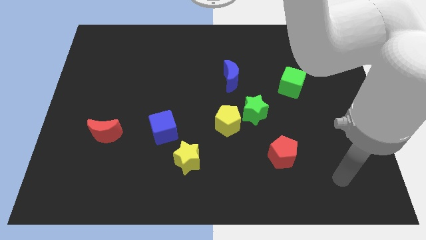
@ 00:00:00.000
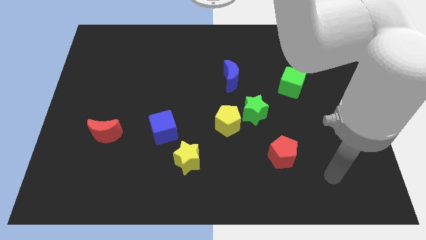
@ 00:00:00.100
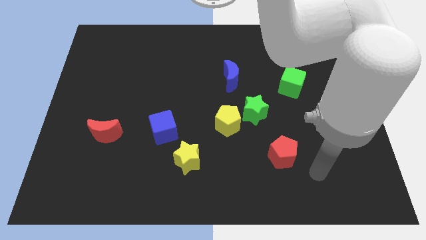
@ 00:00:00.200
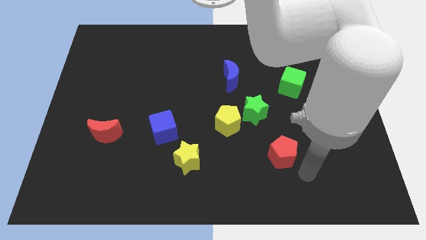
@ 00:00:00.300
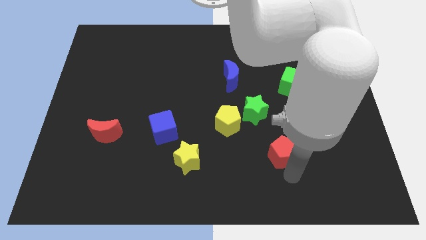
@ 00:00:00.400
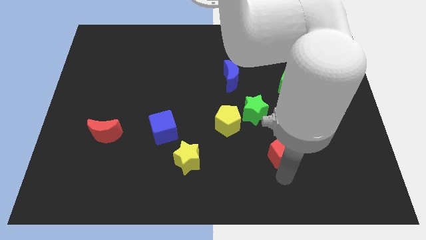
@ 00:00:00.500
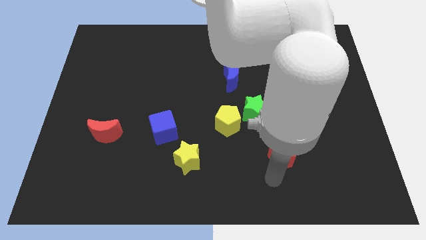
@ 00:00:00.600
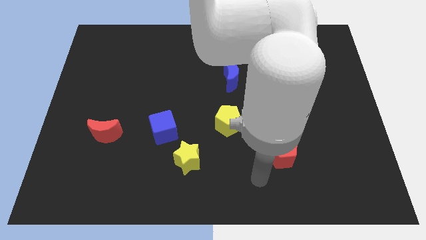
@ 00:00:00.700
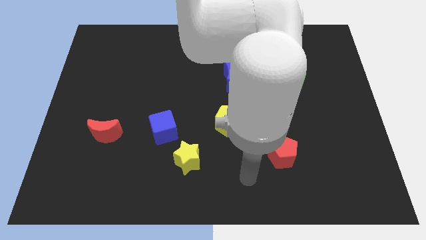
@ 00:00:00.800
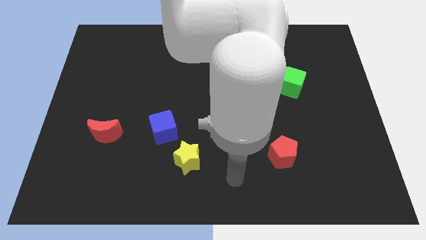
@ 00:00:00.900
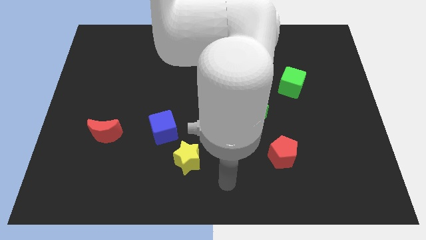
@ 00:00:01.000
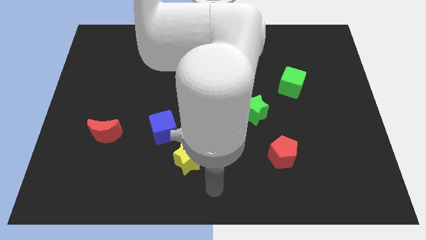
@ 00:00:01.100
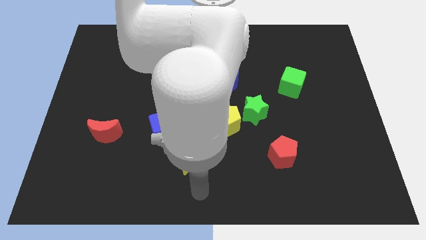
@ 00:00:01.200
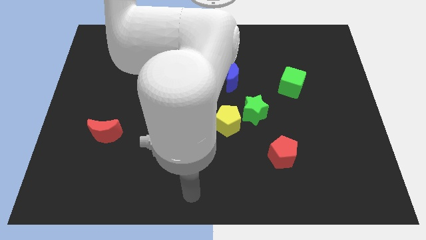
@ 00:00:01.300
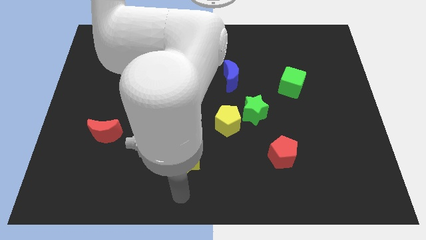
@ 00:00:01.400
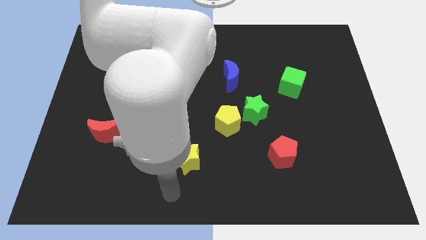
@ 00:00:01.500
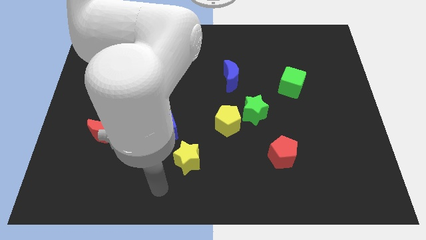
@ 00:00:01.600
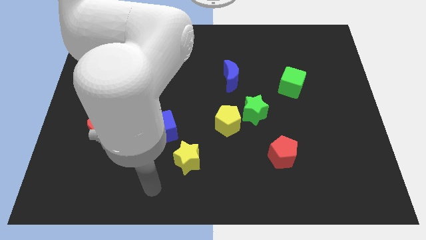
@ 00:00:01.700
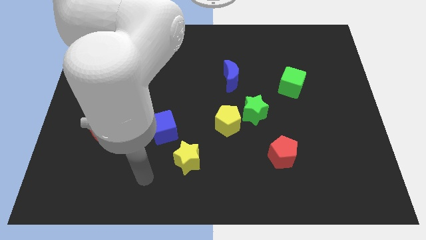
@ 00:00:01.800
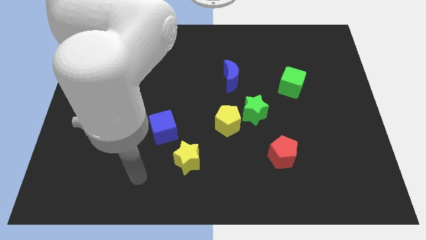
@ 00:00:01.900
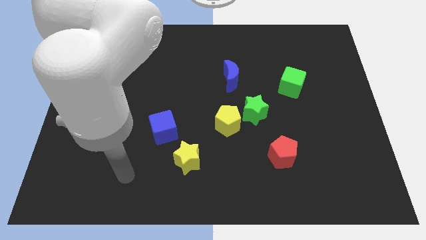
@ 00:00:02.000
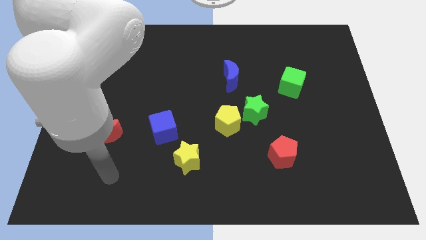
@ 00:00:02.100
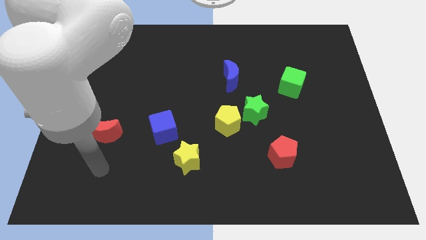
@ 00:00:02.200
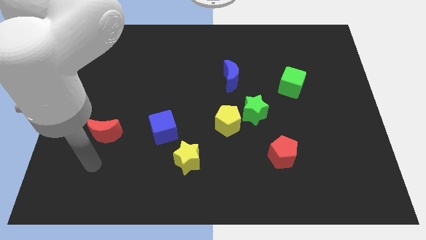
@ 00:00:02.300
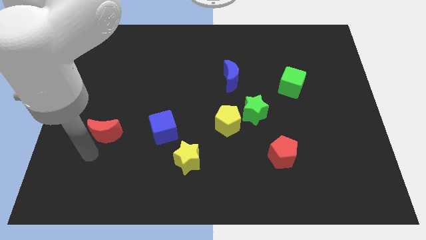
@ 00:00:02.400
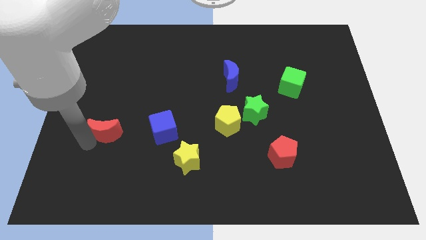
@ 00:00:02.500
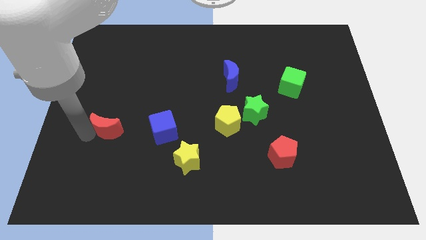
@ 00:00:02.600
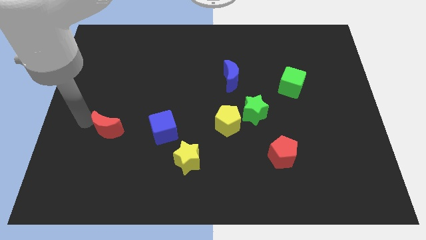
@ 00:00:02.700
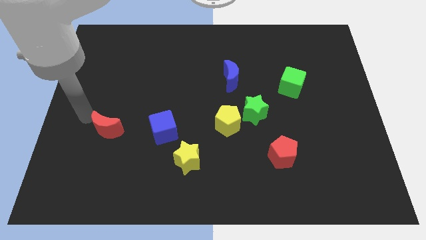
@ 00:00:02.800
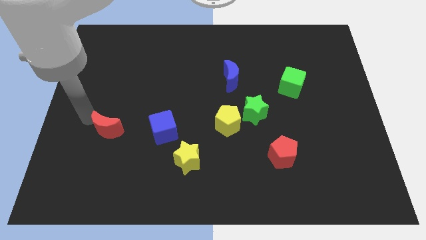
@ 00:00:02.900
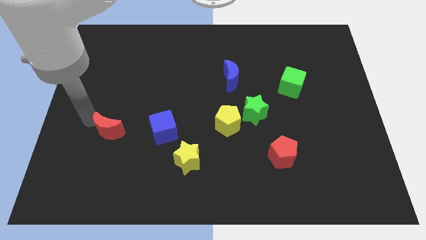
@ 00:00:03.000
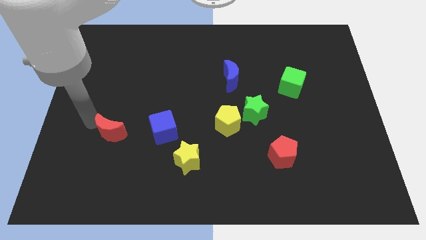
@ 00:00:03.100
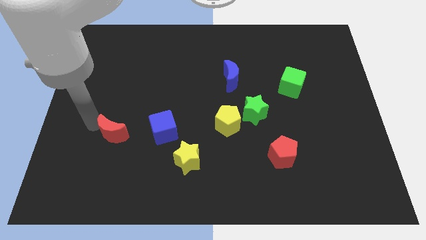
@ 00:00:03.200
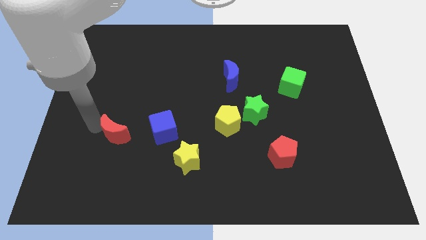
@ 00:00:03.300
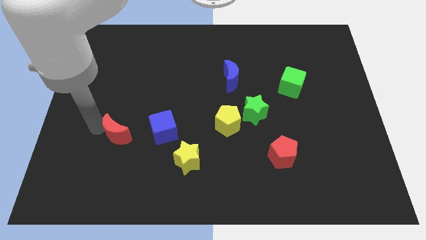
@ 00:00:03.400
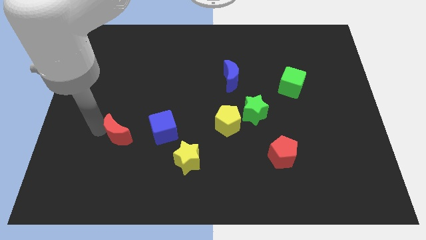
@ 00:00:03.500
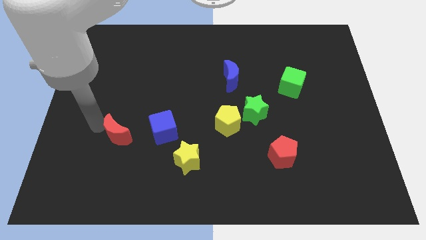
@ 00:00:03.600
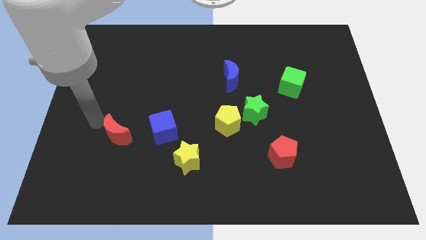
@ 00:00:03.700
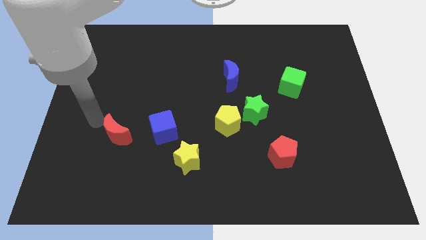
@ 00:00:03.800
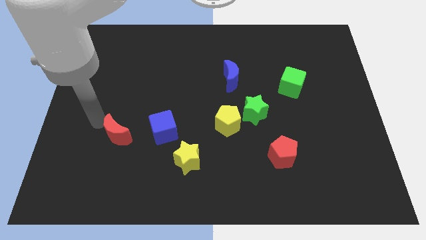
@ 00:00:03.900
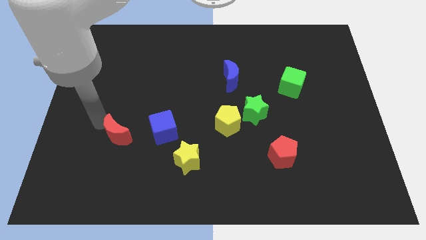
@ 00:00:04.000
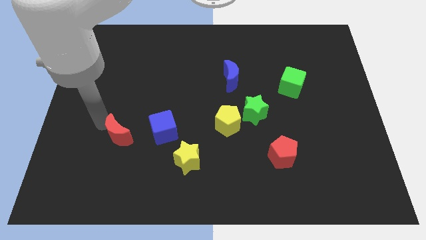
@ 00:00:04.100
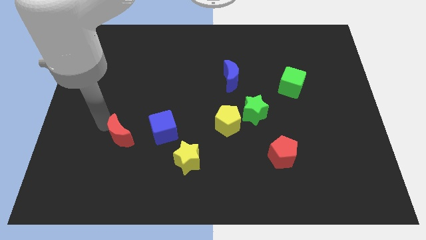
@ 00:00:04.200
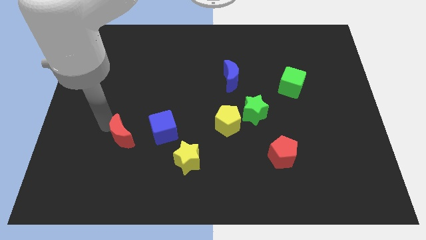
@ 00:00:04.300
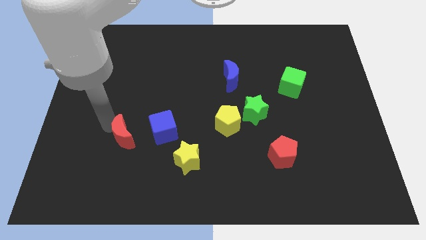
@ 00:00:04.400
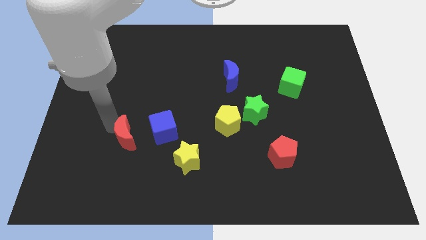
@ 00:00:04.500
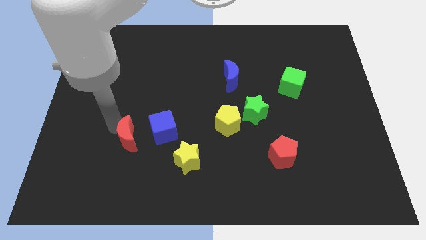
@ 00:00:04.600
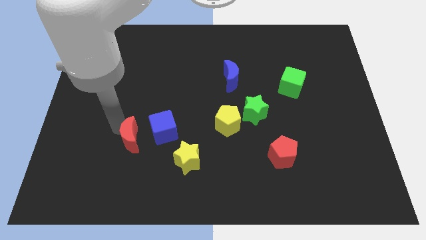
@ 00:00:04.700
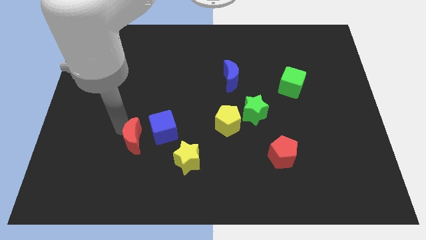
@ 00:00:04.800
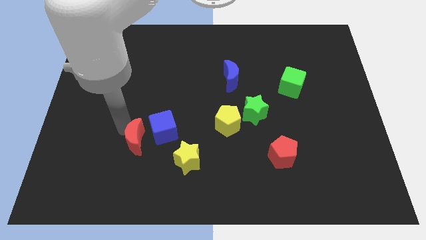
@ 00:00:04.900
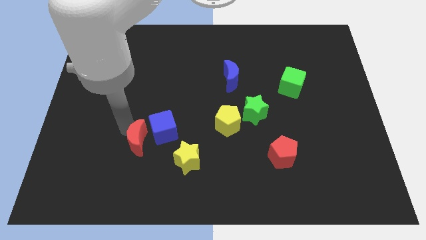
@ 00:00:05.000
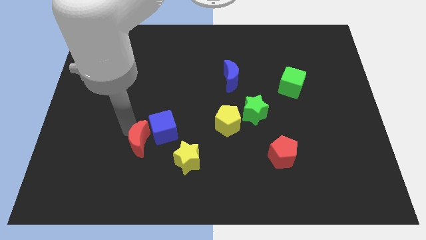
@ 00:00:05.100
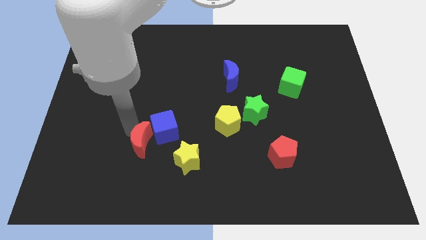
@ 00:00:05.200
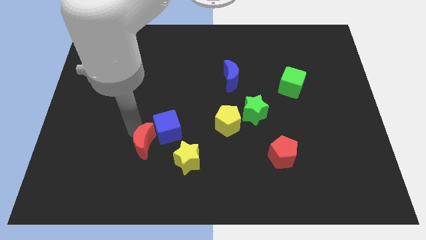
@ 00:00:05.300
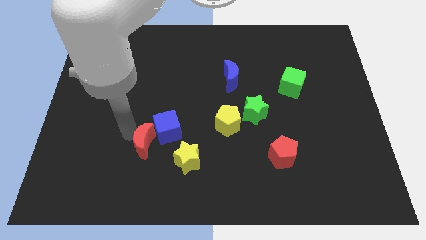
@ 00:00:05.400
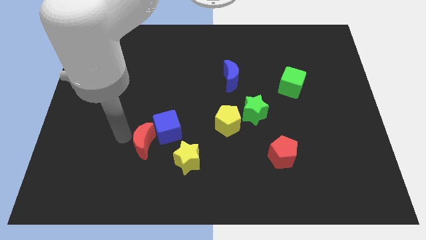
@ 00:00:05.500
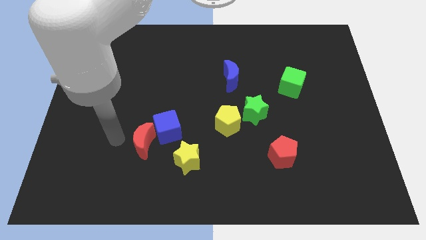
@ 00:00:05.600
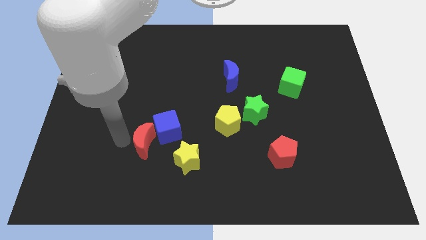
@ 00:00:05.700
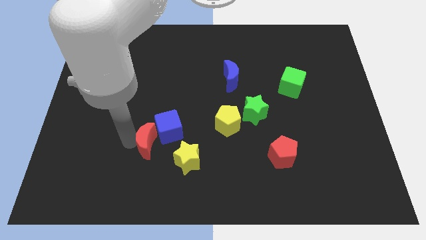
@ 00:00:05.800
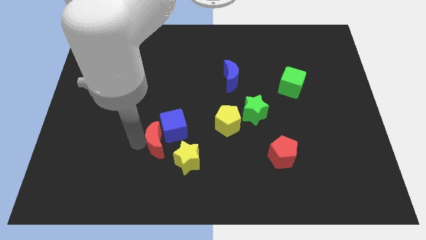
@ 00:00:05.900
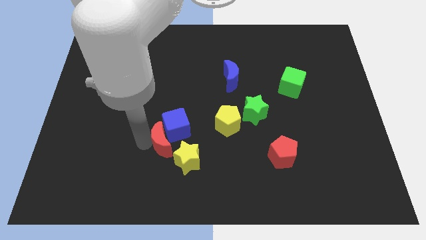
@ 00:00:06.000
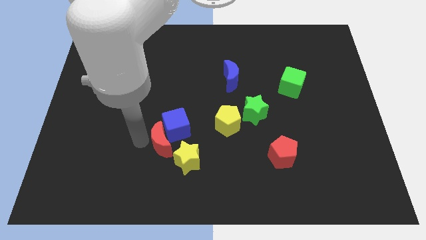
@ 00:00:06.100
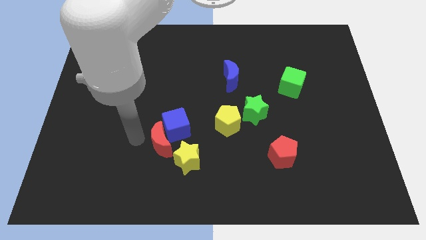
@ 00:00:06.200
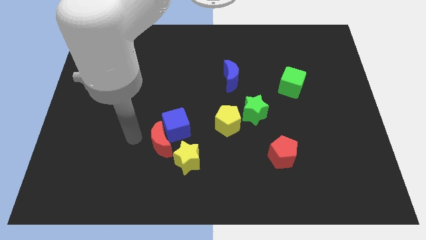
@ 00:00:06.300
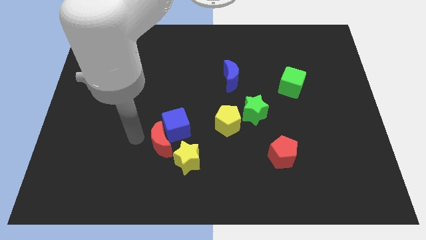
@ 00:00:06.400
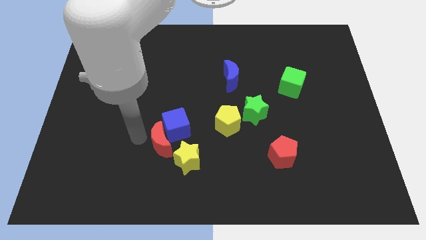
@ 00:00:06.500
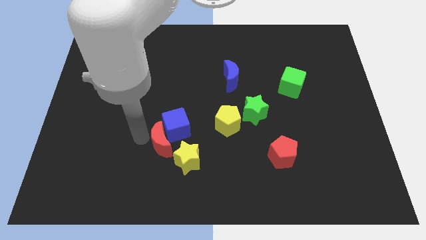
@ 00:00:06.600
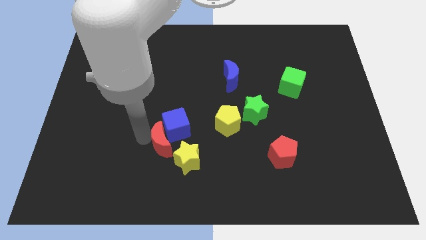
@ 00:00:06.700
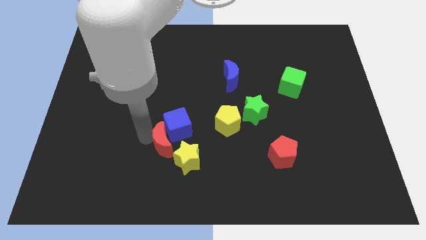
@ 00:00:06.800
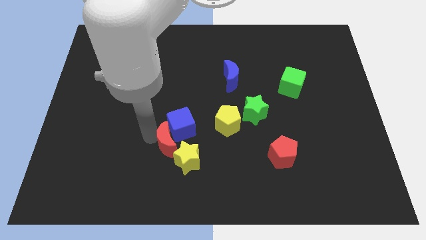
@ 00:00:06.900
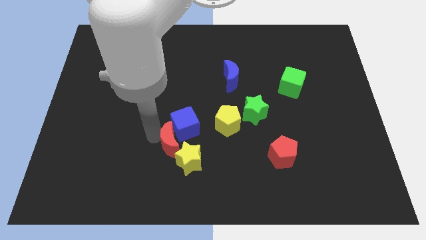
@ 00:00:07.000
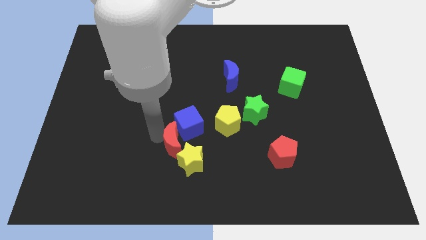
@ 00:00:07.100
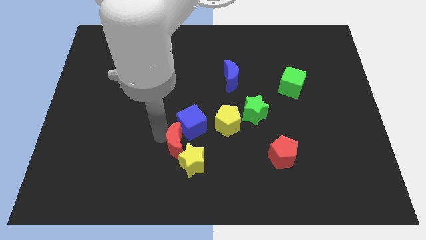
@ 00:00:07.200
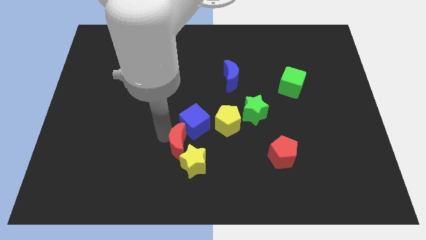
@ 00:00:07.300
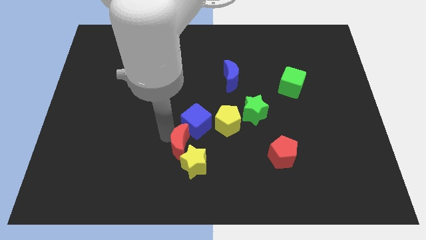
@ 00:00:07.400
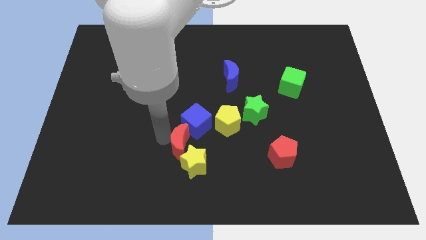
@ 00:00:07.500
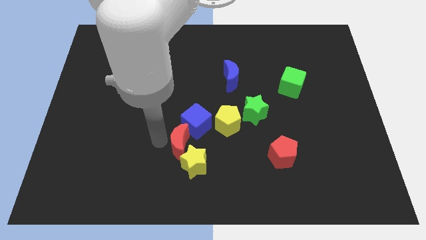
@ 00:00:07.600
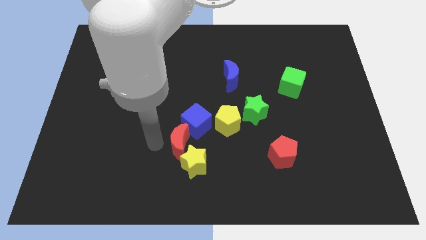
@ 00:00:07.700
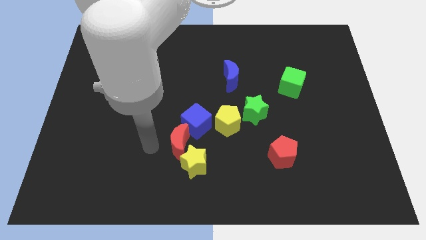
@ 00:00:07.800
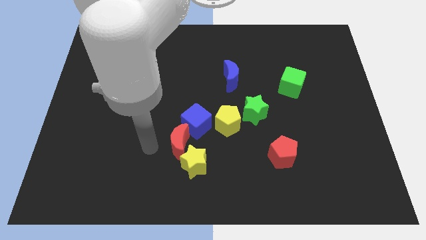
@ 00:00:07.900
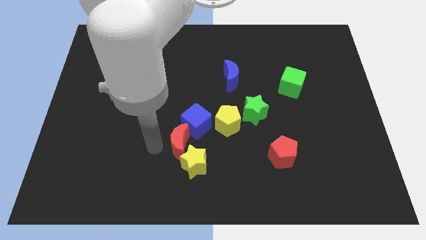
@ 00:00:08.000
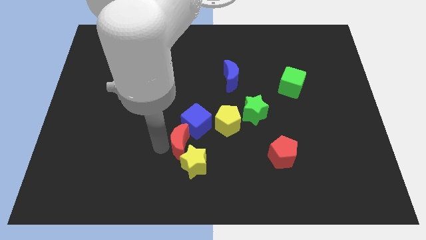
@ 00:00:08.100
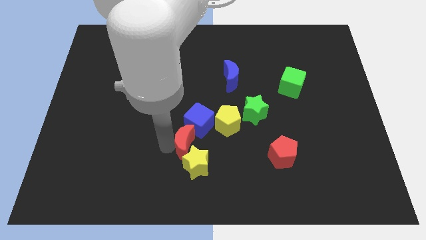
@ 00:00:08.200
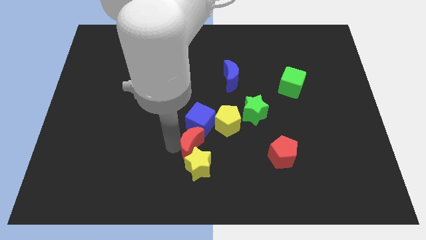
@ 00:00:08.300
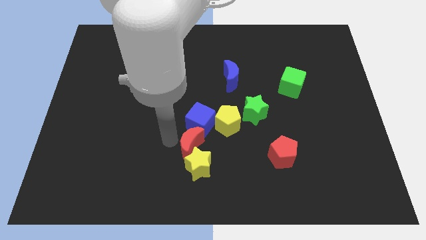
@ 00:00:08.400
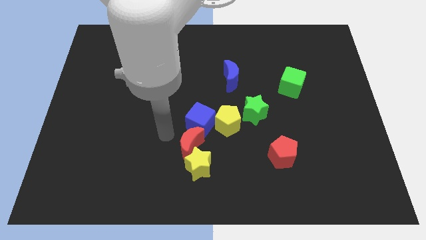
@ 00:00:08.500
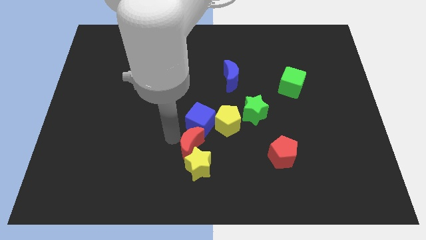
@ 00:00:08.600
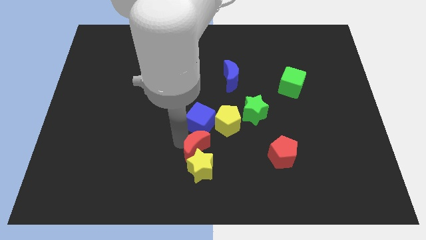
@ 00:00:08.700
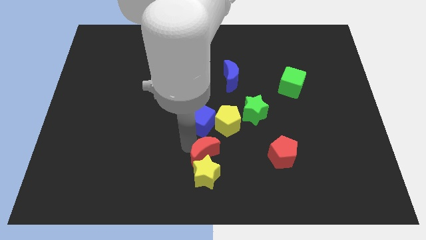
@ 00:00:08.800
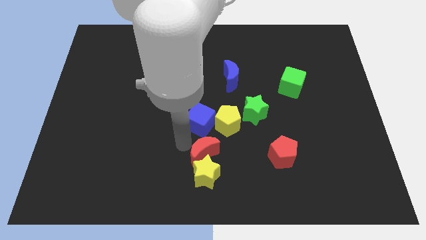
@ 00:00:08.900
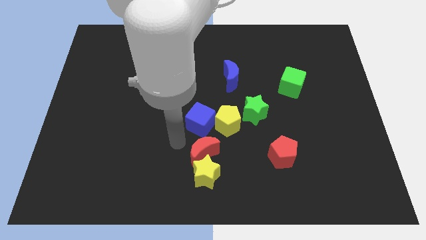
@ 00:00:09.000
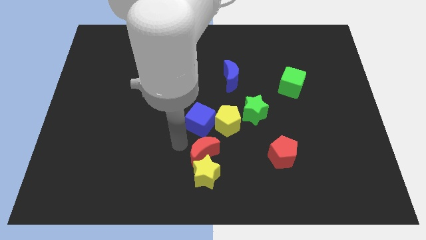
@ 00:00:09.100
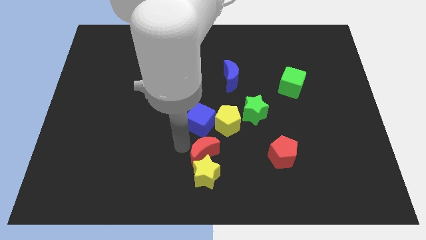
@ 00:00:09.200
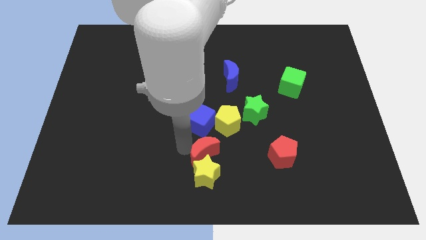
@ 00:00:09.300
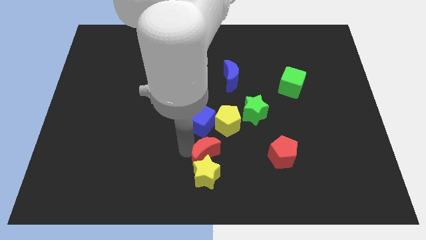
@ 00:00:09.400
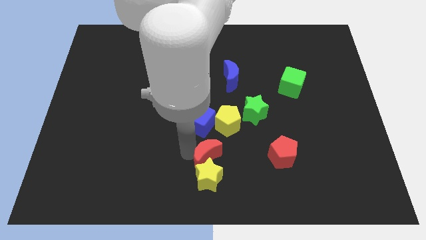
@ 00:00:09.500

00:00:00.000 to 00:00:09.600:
push the red moon to the bottom of the yellow pentagon
